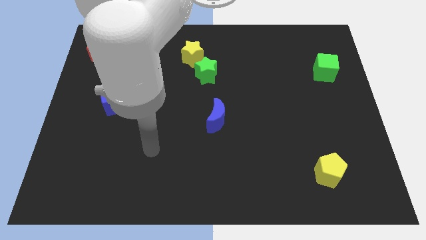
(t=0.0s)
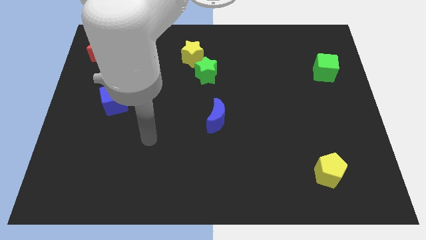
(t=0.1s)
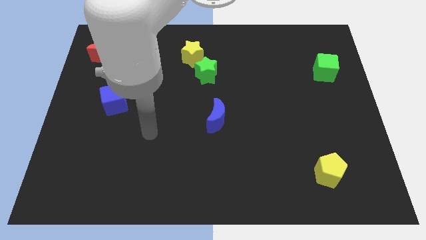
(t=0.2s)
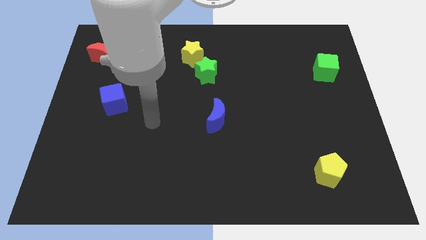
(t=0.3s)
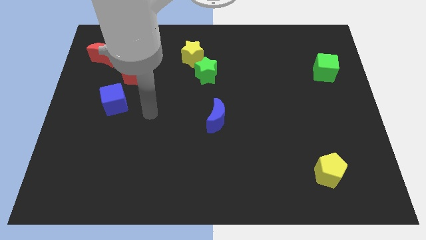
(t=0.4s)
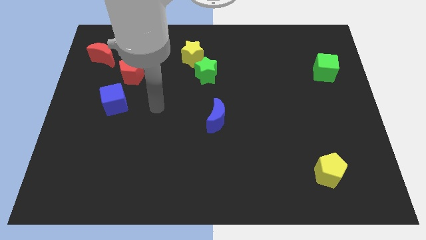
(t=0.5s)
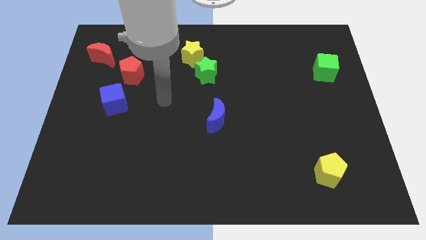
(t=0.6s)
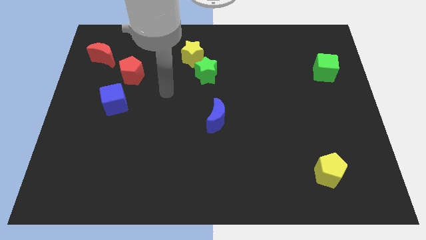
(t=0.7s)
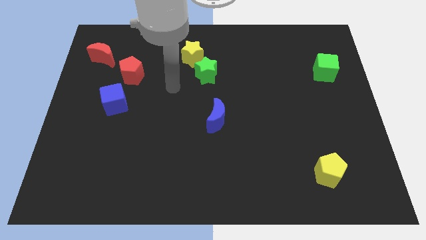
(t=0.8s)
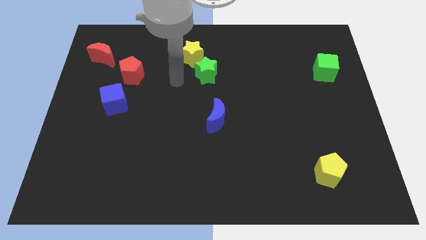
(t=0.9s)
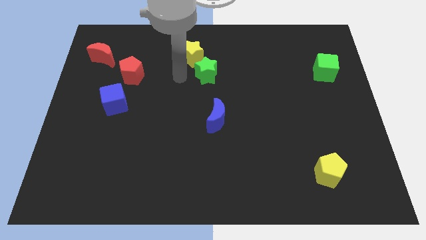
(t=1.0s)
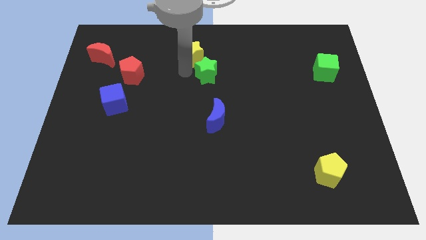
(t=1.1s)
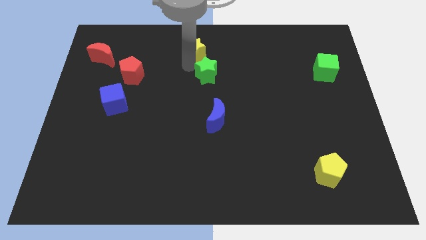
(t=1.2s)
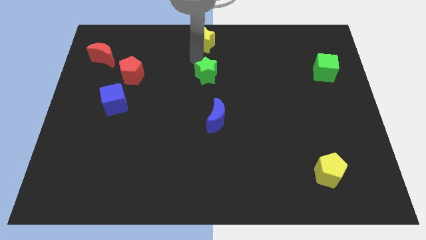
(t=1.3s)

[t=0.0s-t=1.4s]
pull the green star apart from the yellow star

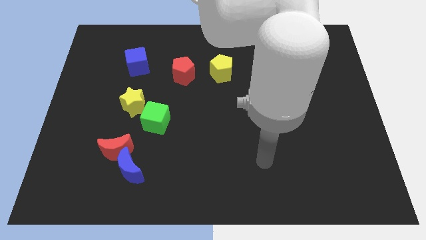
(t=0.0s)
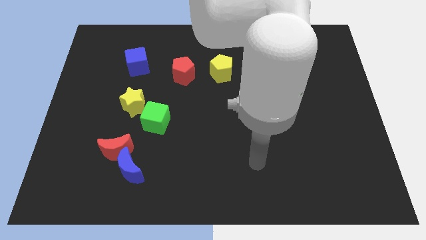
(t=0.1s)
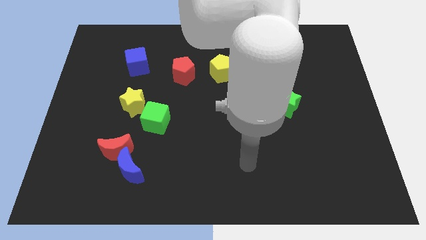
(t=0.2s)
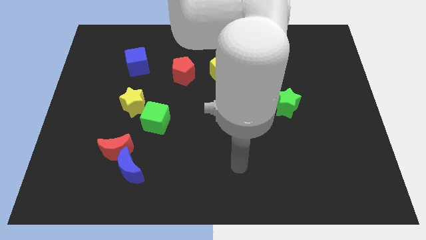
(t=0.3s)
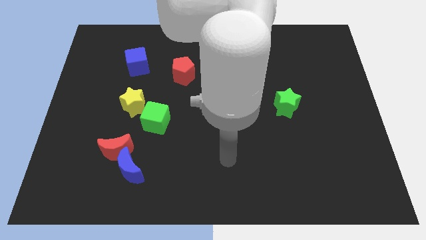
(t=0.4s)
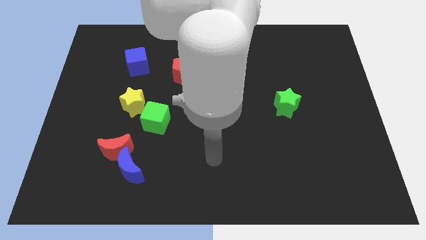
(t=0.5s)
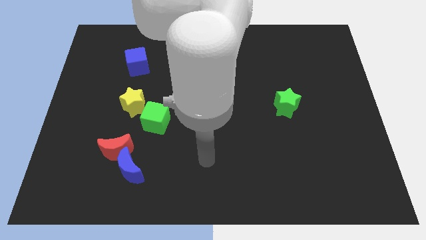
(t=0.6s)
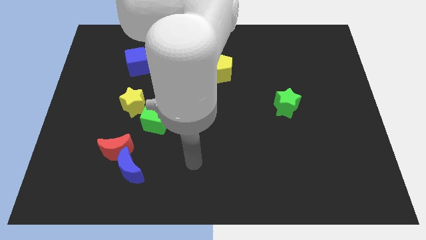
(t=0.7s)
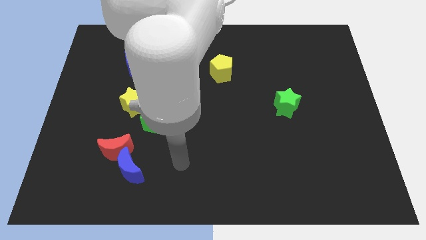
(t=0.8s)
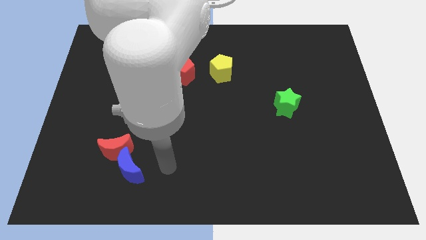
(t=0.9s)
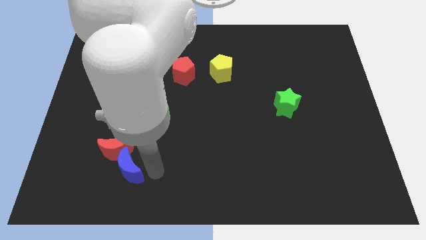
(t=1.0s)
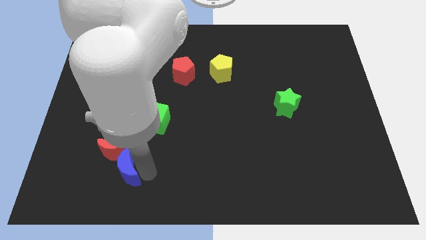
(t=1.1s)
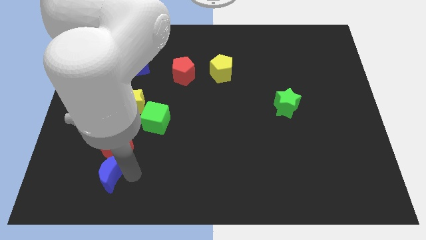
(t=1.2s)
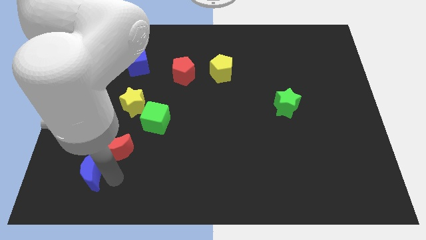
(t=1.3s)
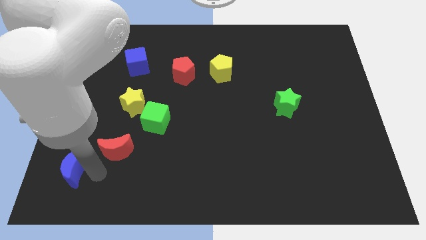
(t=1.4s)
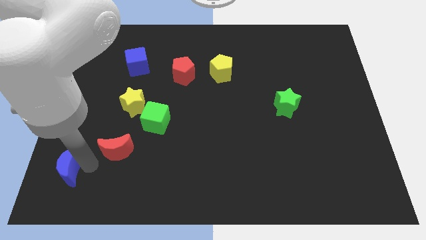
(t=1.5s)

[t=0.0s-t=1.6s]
move the red moon away from the blue moon

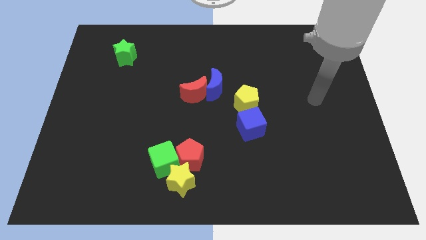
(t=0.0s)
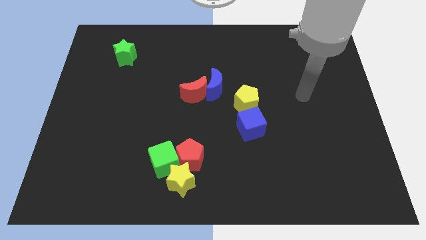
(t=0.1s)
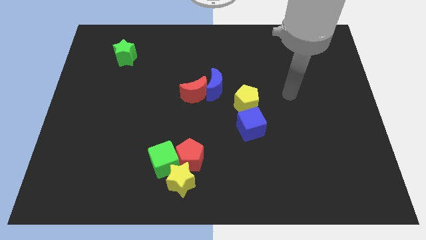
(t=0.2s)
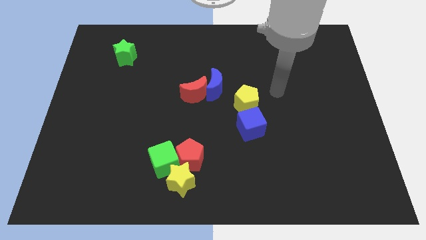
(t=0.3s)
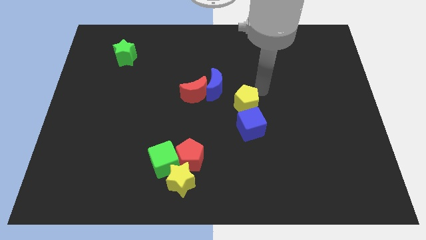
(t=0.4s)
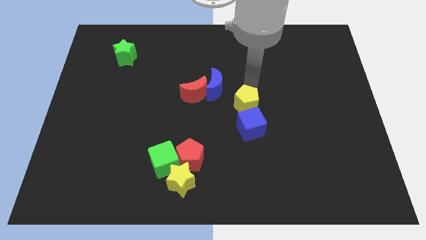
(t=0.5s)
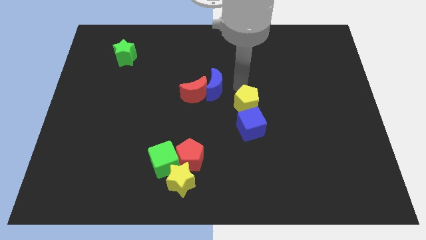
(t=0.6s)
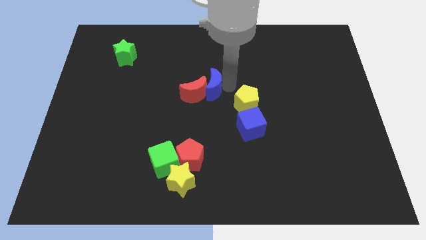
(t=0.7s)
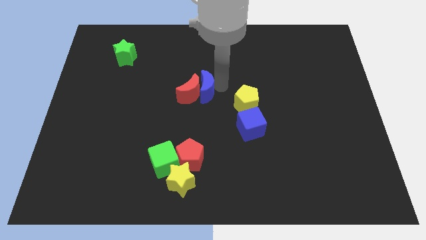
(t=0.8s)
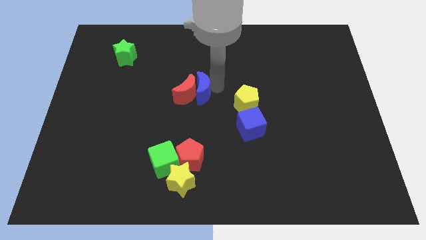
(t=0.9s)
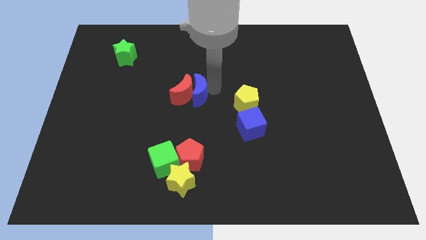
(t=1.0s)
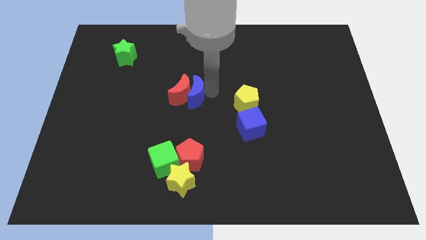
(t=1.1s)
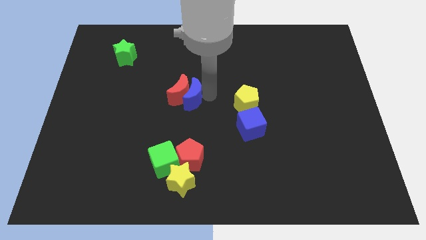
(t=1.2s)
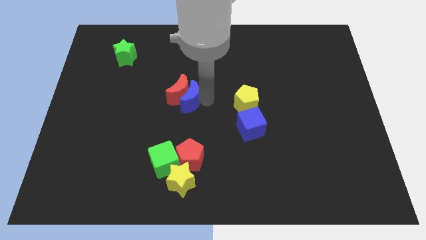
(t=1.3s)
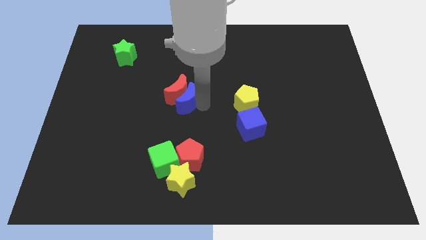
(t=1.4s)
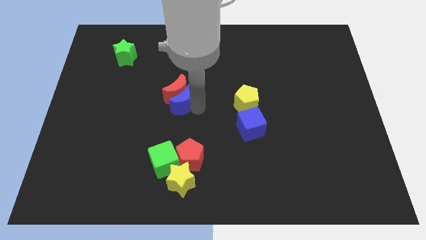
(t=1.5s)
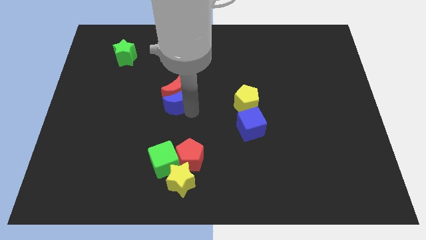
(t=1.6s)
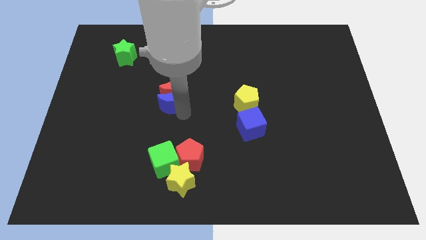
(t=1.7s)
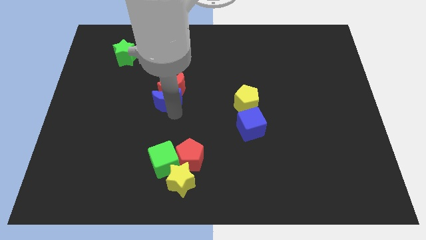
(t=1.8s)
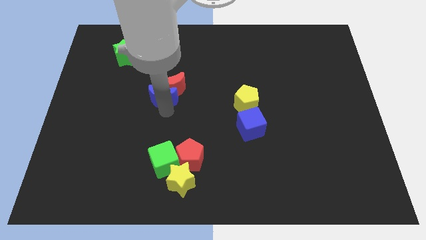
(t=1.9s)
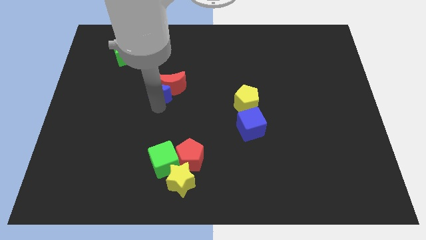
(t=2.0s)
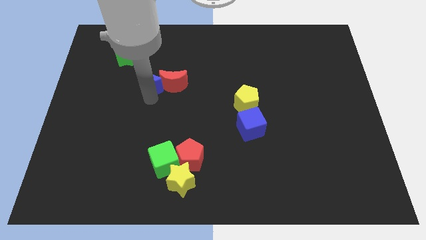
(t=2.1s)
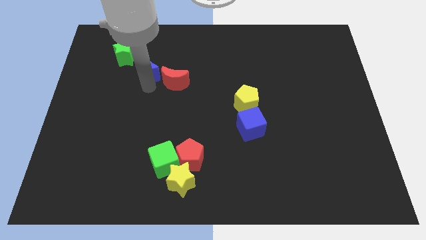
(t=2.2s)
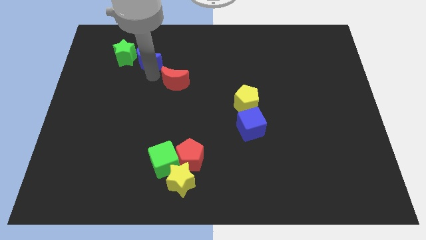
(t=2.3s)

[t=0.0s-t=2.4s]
separate the red moon from the blue moon

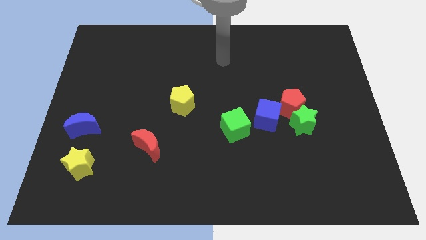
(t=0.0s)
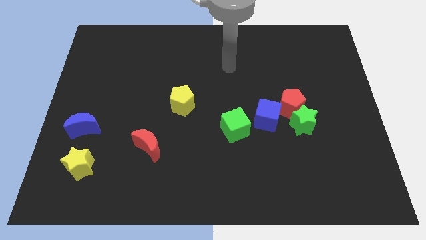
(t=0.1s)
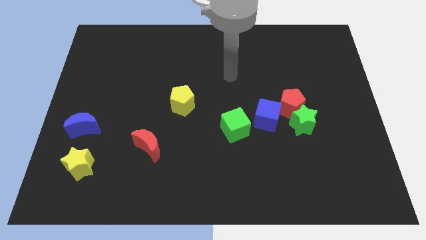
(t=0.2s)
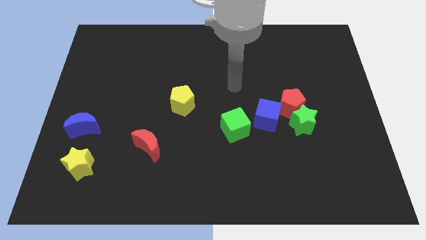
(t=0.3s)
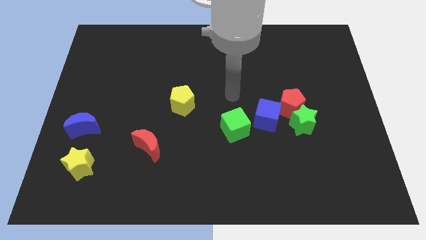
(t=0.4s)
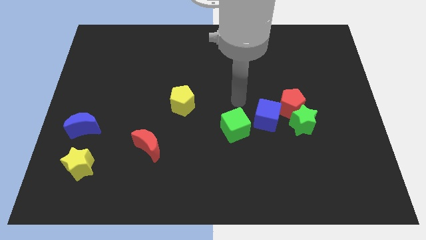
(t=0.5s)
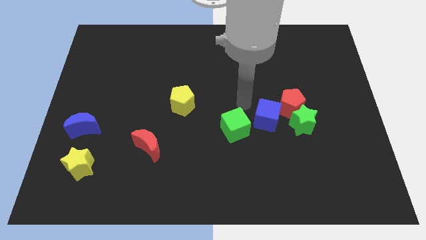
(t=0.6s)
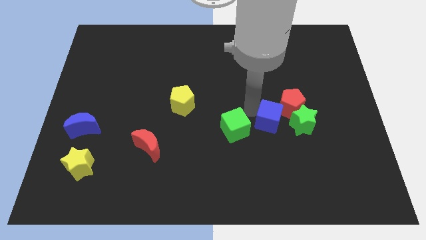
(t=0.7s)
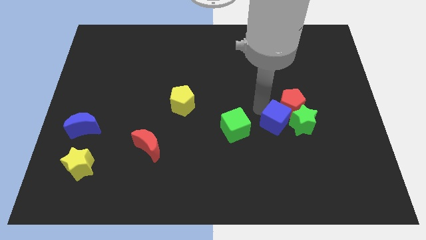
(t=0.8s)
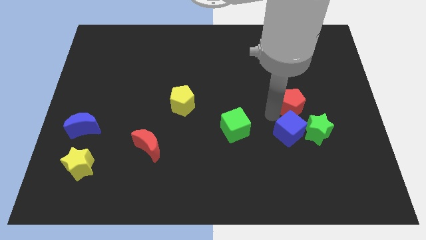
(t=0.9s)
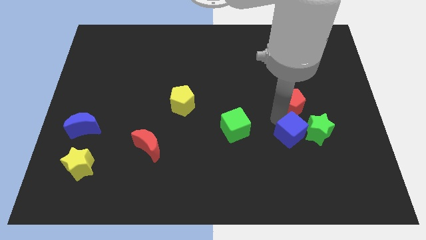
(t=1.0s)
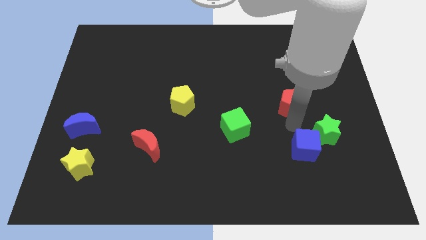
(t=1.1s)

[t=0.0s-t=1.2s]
move the red pentagon away from the green star and blue cube

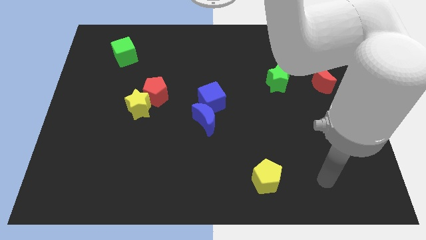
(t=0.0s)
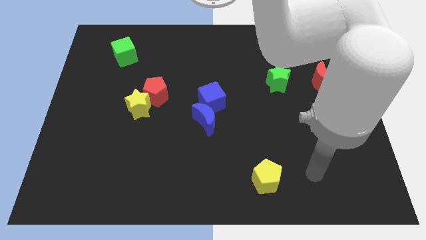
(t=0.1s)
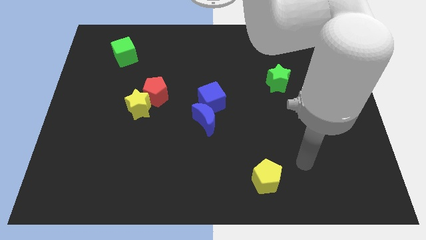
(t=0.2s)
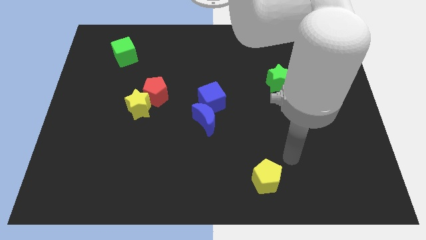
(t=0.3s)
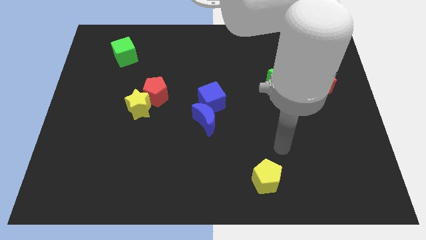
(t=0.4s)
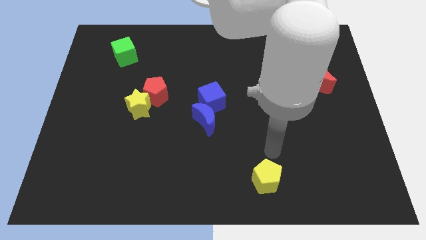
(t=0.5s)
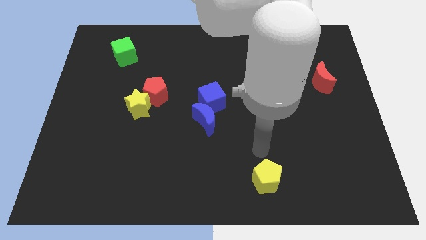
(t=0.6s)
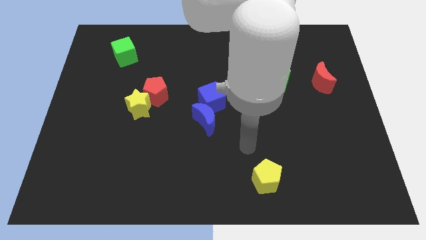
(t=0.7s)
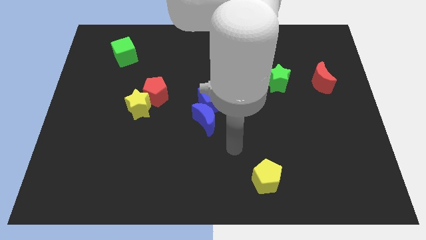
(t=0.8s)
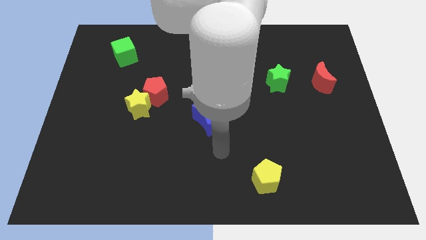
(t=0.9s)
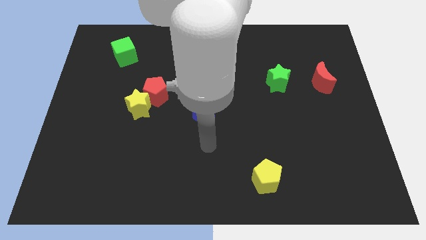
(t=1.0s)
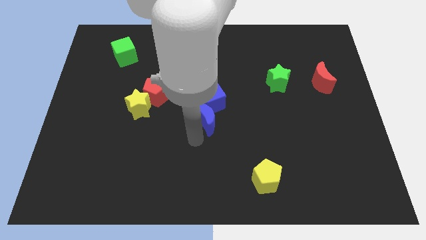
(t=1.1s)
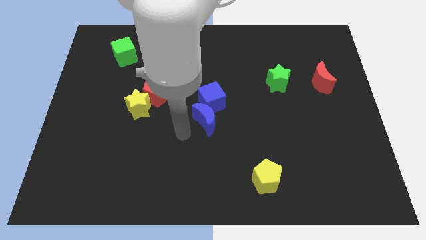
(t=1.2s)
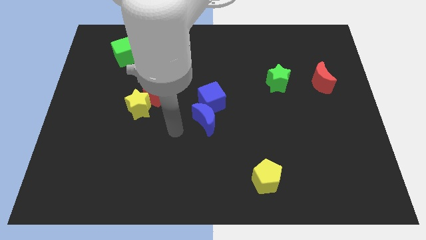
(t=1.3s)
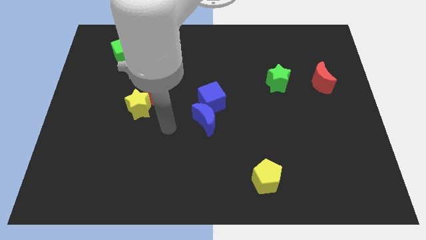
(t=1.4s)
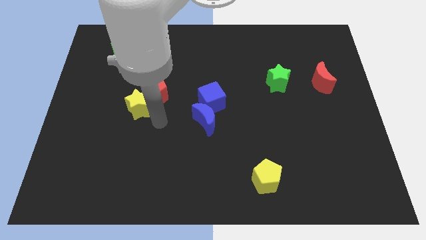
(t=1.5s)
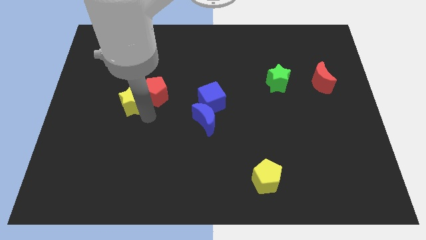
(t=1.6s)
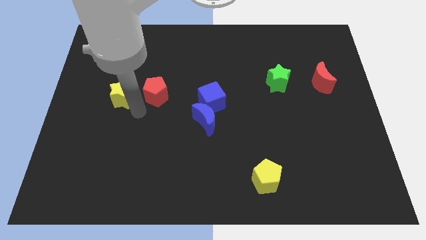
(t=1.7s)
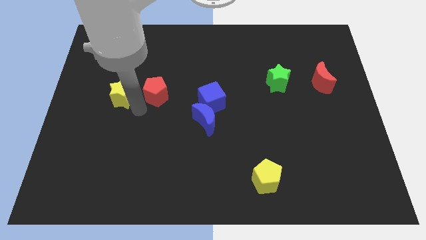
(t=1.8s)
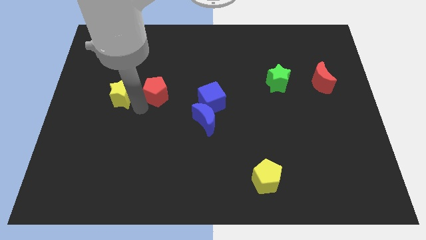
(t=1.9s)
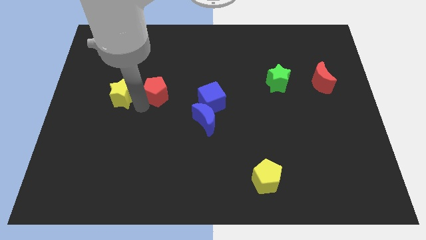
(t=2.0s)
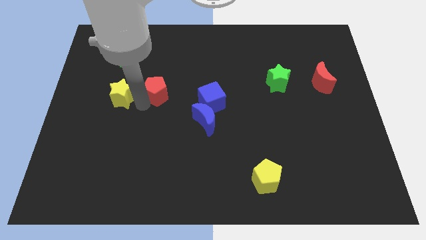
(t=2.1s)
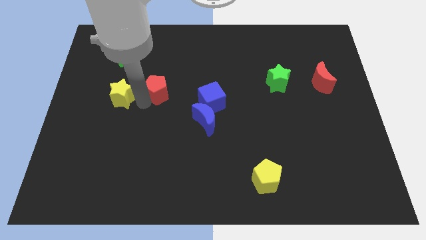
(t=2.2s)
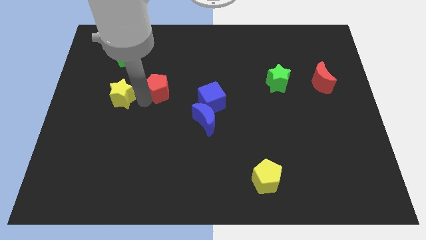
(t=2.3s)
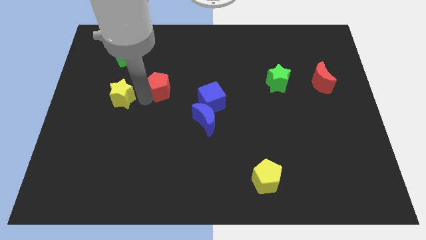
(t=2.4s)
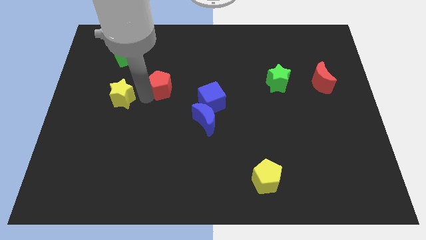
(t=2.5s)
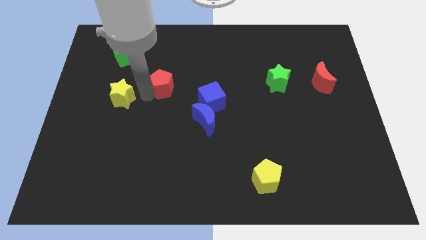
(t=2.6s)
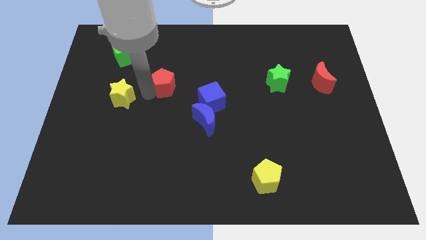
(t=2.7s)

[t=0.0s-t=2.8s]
pull the red pentagon apart from the yellow star
